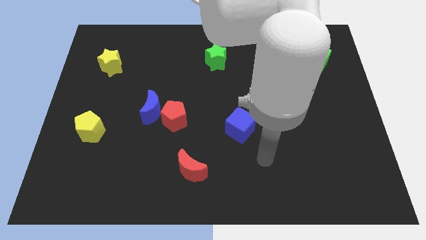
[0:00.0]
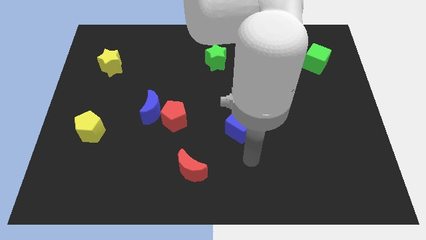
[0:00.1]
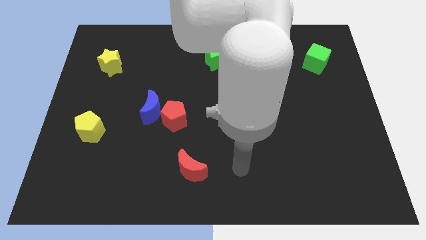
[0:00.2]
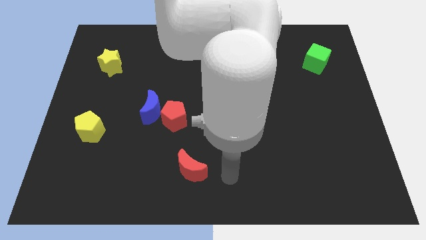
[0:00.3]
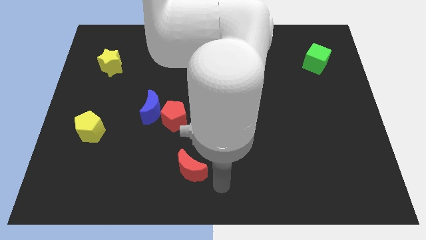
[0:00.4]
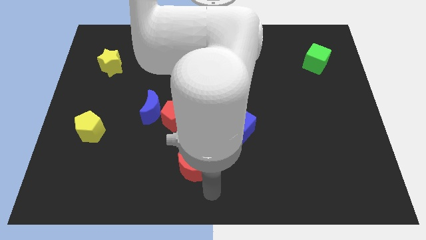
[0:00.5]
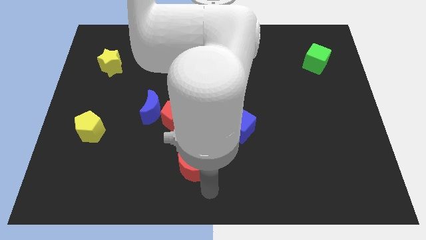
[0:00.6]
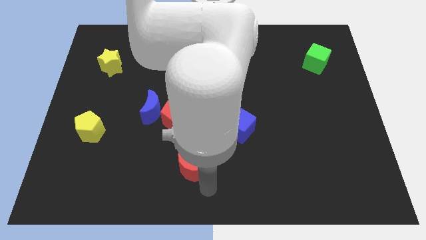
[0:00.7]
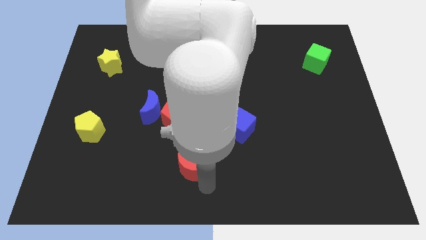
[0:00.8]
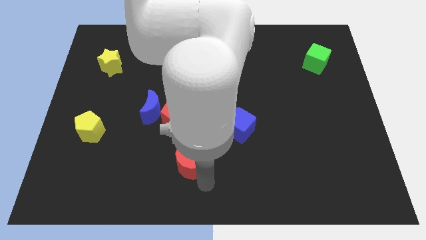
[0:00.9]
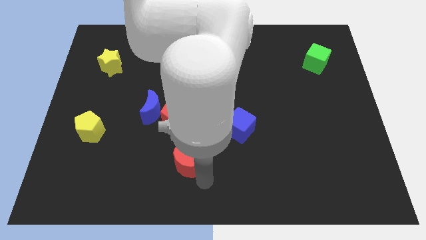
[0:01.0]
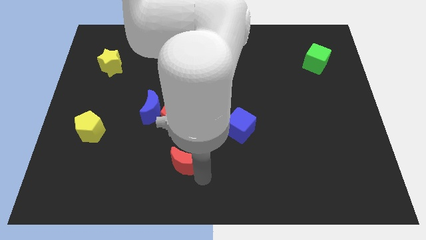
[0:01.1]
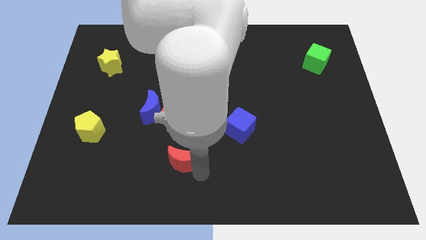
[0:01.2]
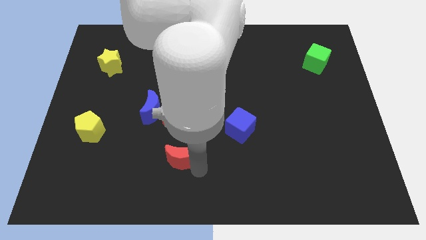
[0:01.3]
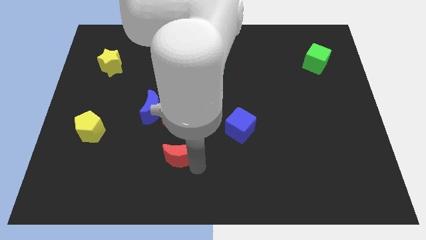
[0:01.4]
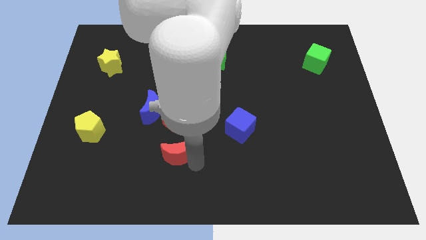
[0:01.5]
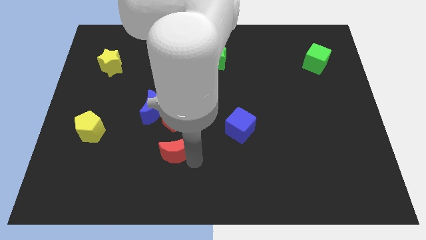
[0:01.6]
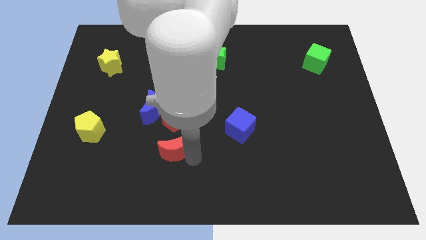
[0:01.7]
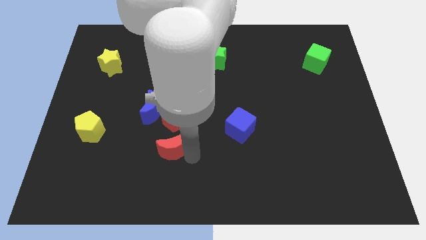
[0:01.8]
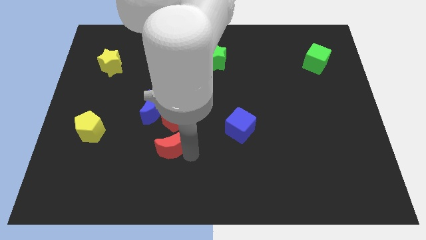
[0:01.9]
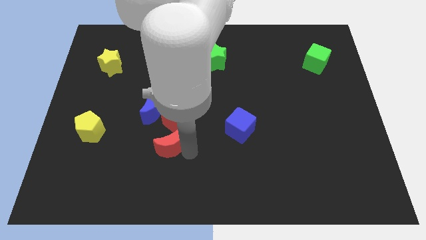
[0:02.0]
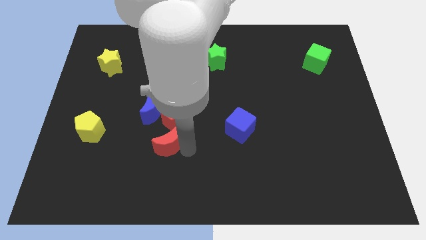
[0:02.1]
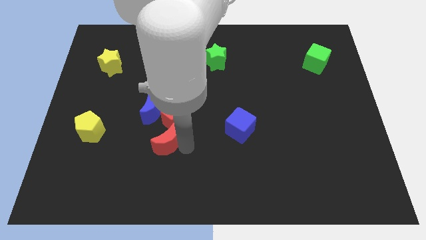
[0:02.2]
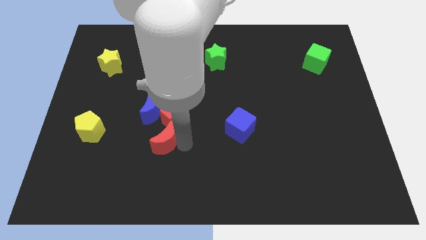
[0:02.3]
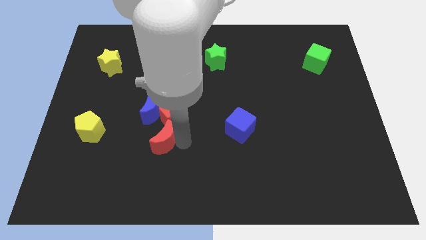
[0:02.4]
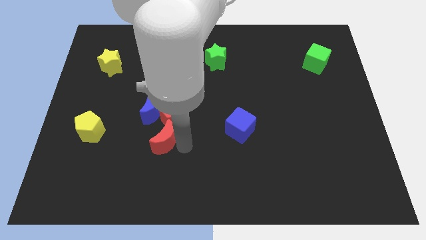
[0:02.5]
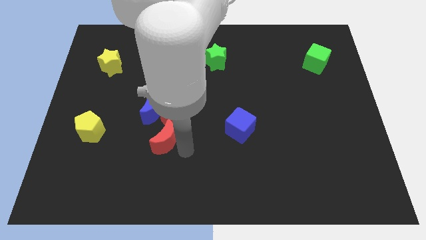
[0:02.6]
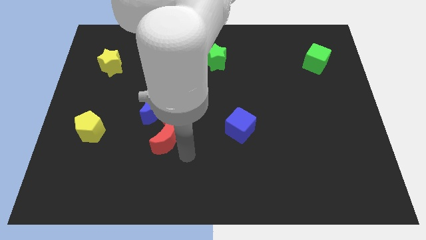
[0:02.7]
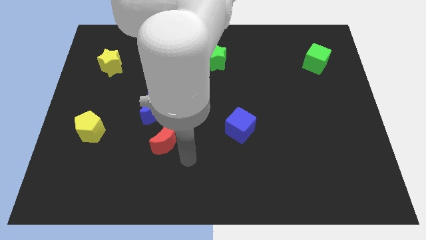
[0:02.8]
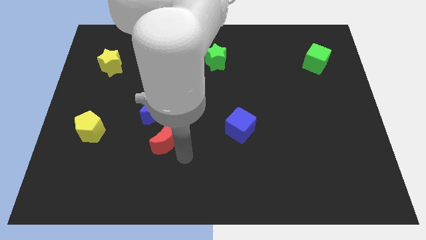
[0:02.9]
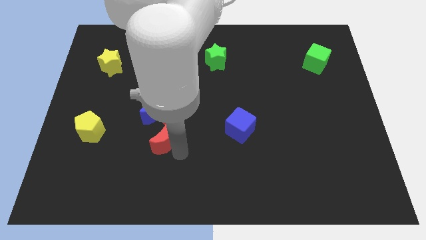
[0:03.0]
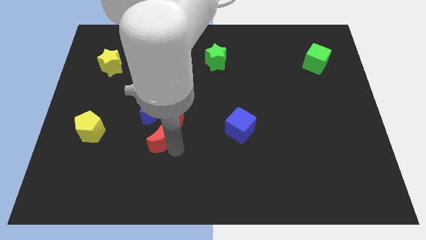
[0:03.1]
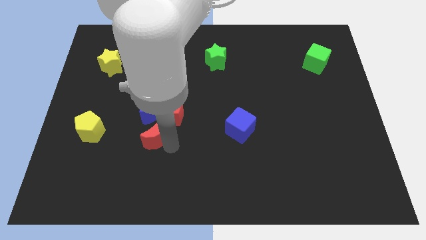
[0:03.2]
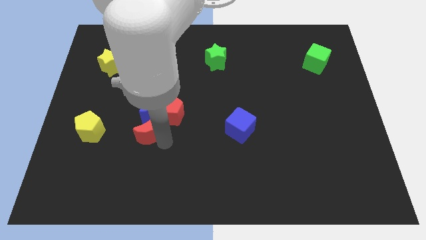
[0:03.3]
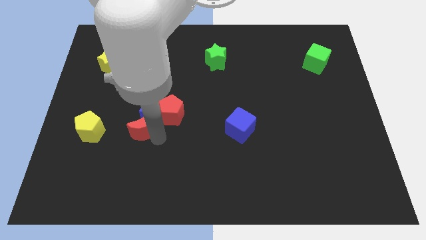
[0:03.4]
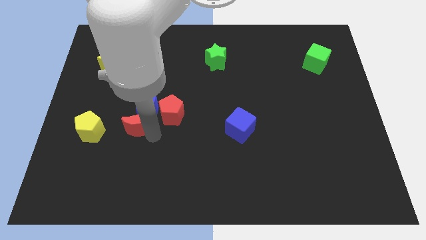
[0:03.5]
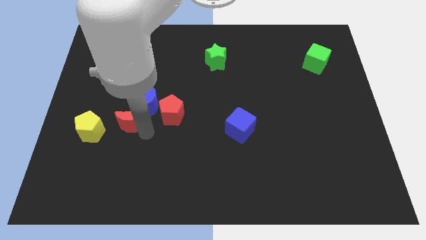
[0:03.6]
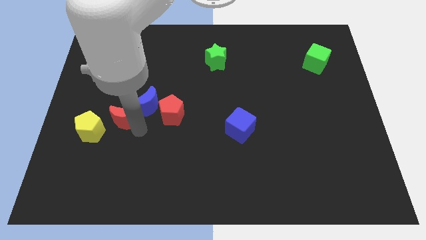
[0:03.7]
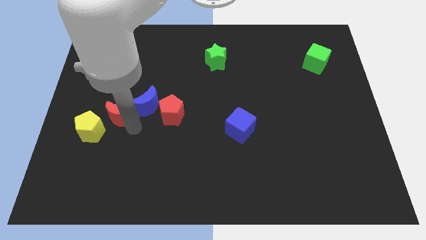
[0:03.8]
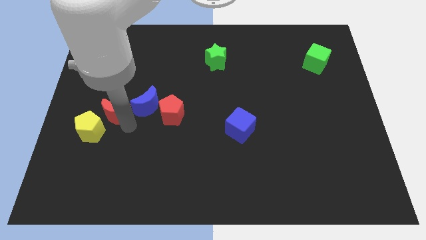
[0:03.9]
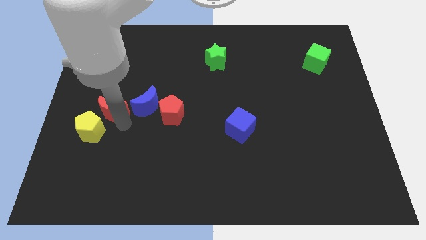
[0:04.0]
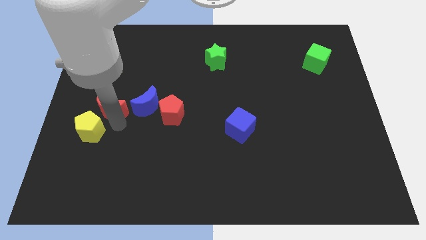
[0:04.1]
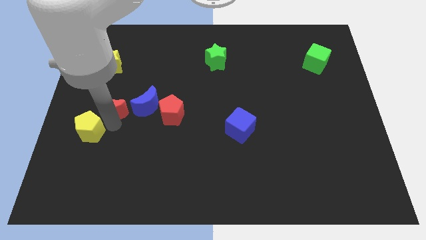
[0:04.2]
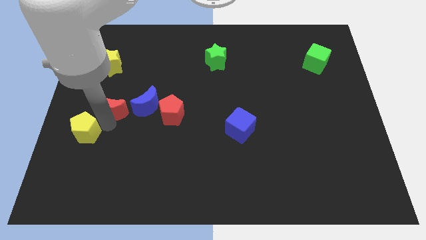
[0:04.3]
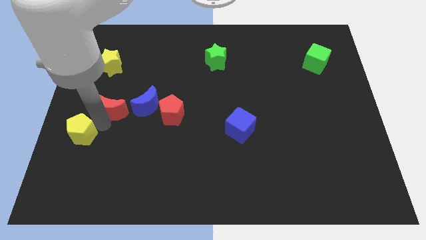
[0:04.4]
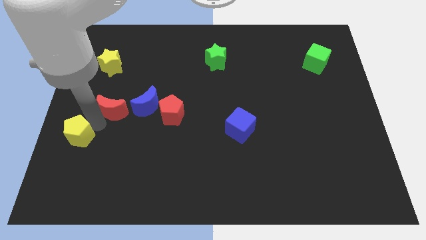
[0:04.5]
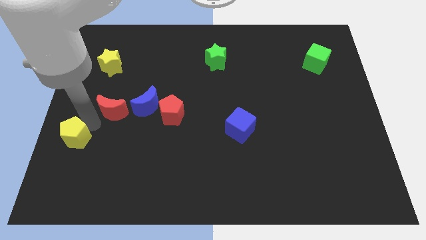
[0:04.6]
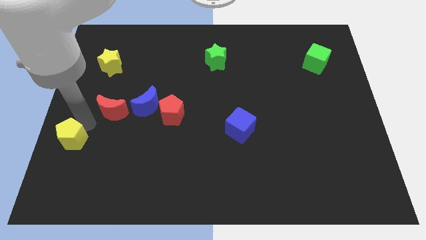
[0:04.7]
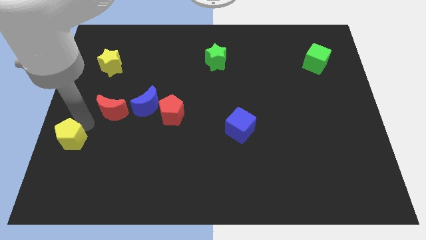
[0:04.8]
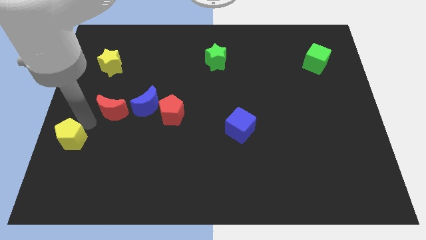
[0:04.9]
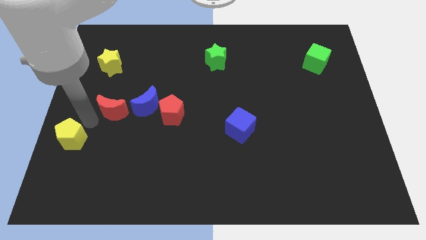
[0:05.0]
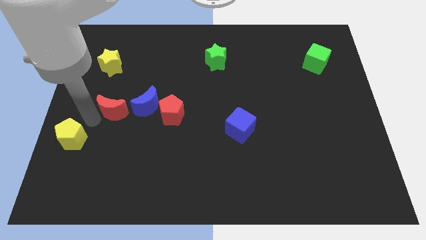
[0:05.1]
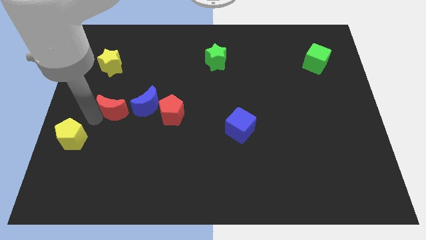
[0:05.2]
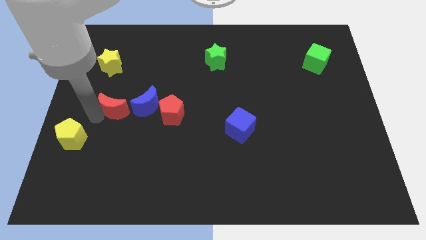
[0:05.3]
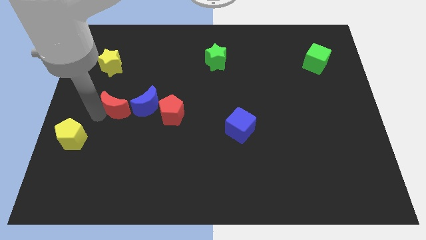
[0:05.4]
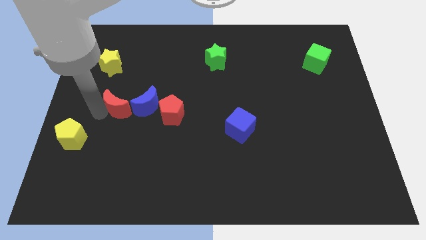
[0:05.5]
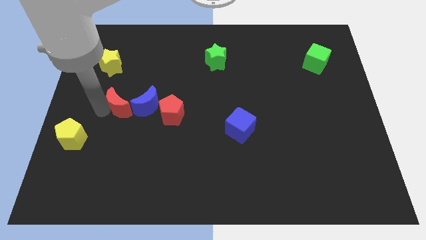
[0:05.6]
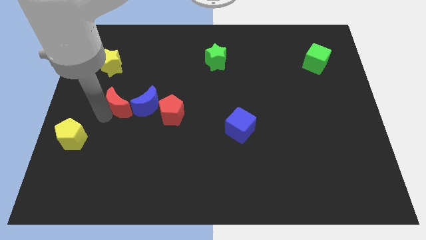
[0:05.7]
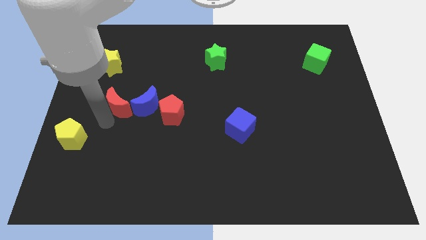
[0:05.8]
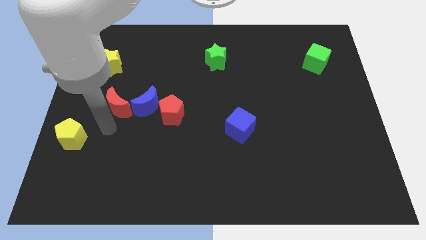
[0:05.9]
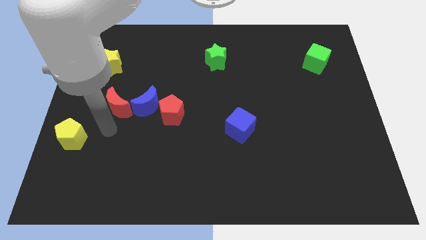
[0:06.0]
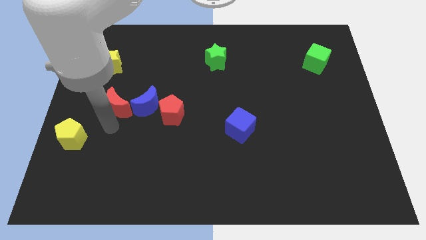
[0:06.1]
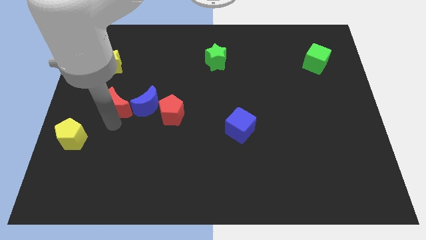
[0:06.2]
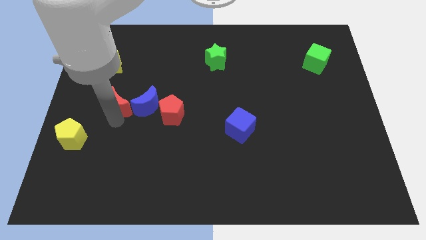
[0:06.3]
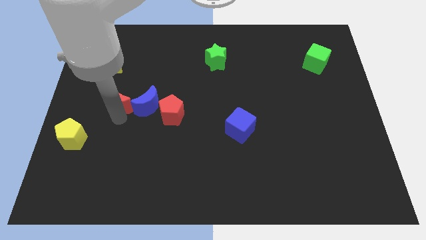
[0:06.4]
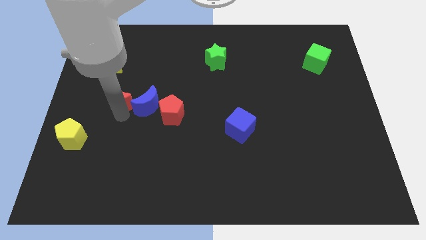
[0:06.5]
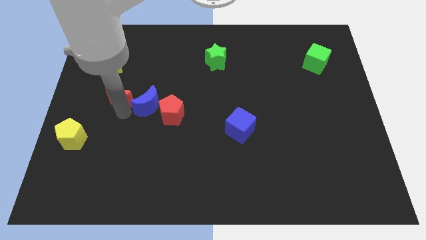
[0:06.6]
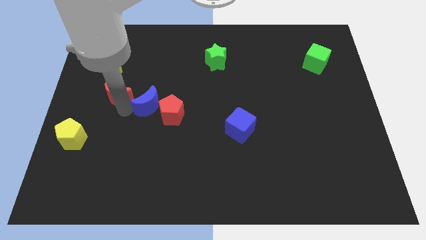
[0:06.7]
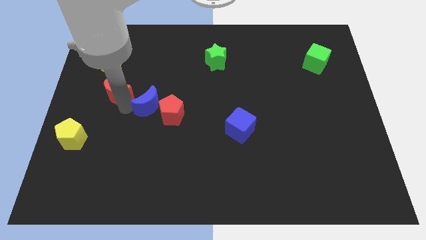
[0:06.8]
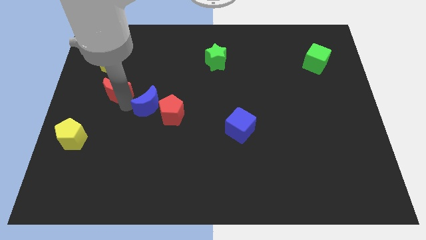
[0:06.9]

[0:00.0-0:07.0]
put the red moon to the bottom right of the yellow star
